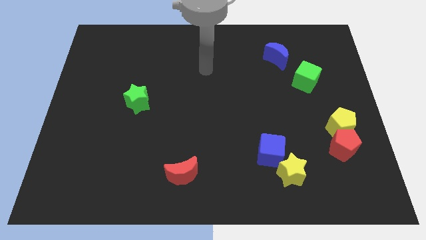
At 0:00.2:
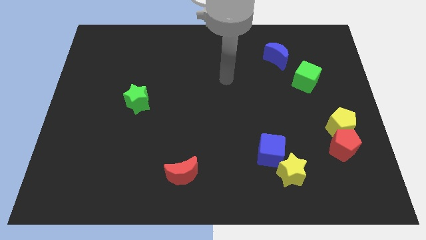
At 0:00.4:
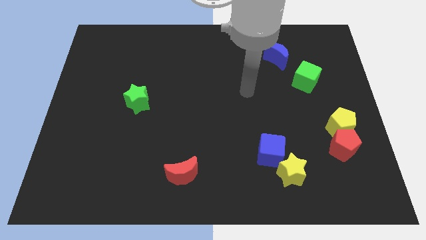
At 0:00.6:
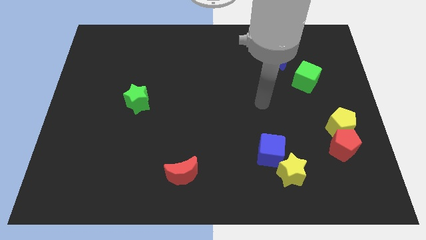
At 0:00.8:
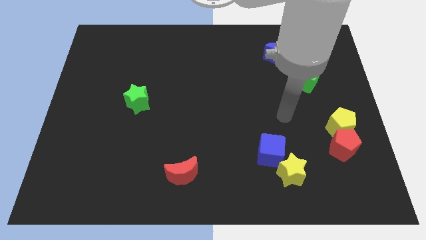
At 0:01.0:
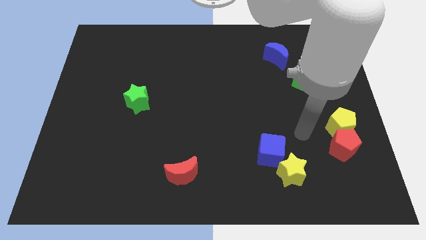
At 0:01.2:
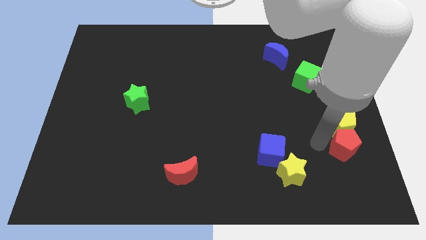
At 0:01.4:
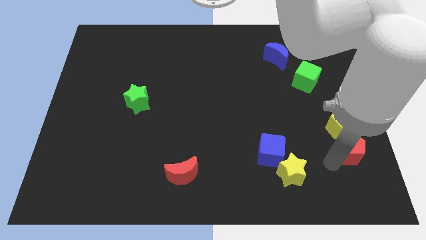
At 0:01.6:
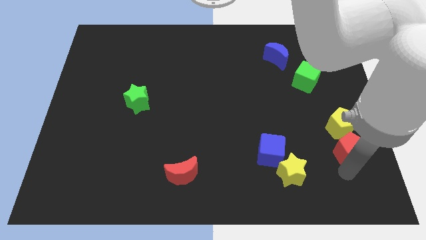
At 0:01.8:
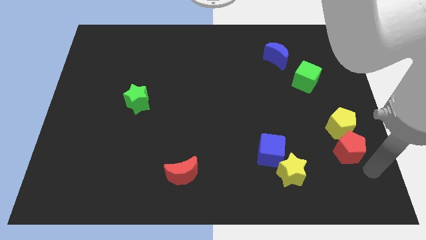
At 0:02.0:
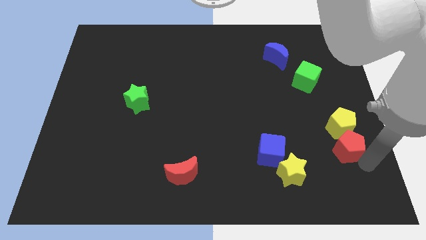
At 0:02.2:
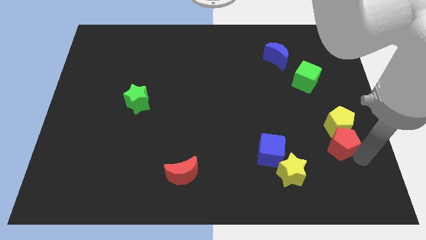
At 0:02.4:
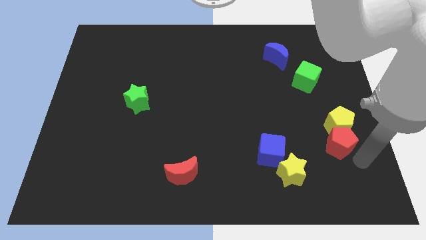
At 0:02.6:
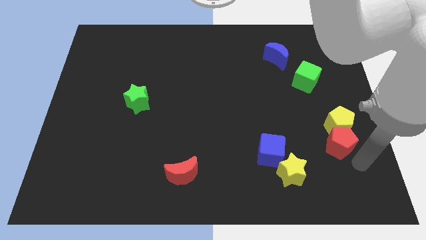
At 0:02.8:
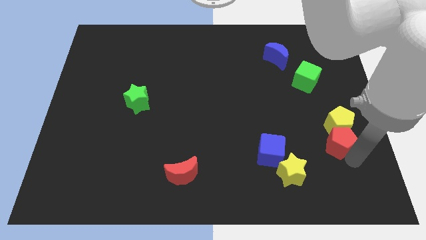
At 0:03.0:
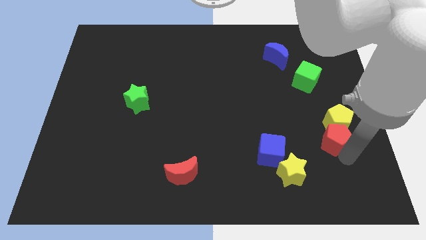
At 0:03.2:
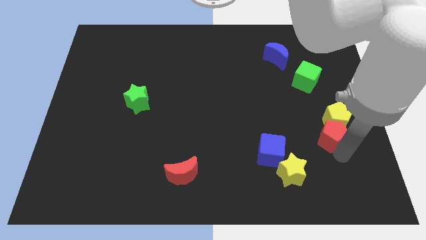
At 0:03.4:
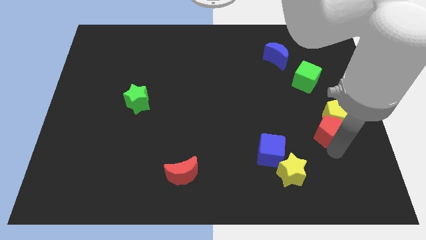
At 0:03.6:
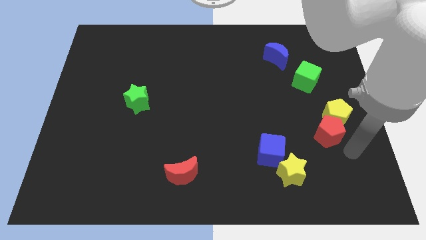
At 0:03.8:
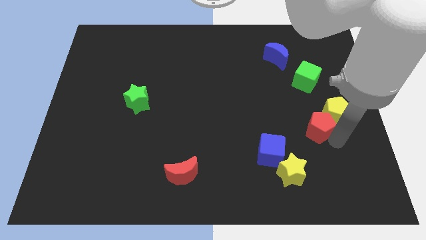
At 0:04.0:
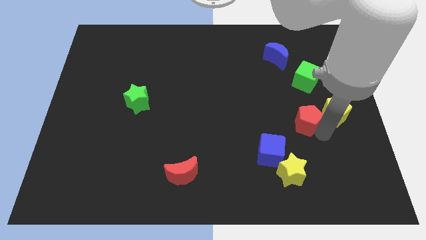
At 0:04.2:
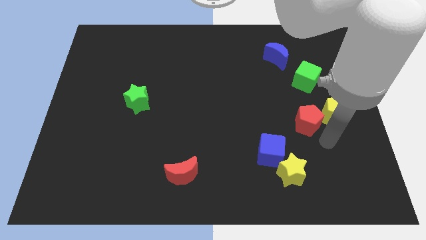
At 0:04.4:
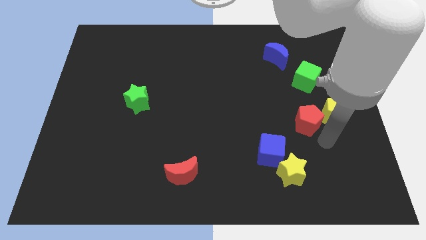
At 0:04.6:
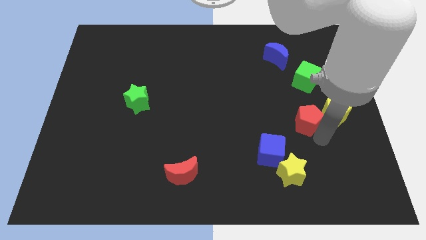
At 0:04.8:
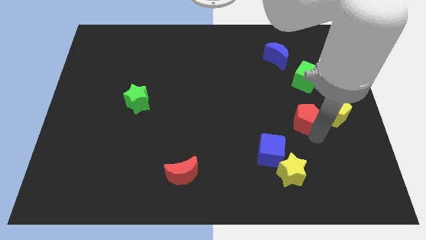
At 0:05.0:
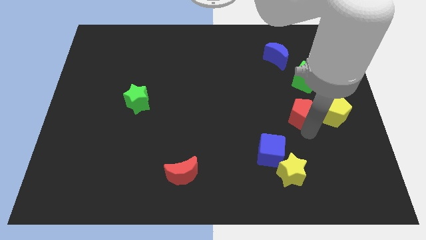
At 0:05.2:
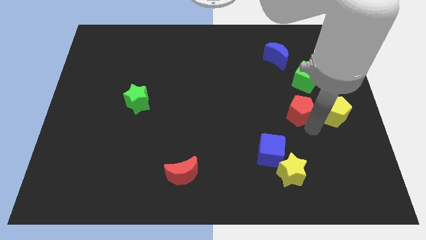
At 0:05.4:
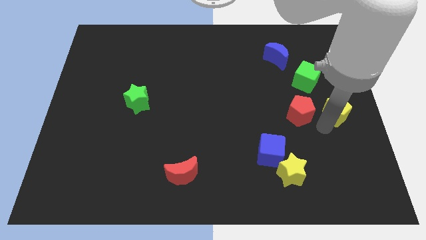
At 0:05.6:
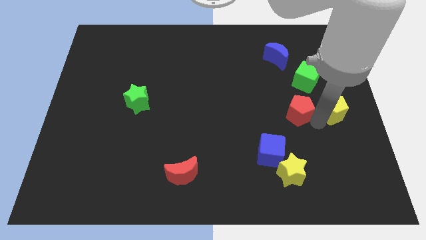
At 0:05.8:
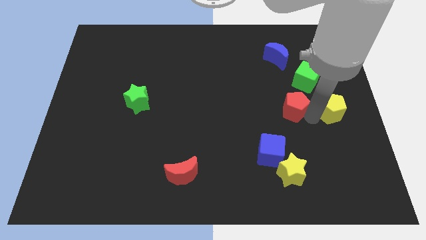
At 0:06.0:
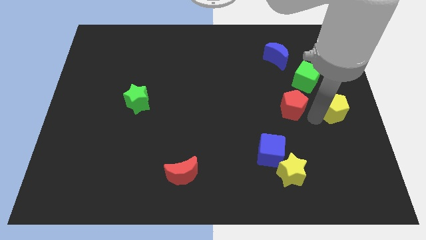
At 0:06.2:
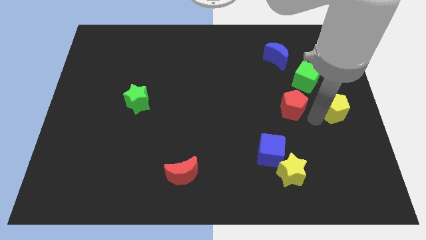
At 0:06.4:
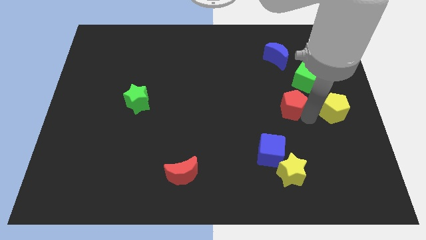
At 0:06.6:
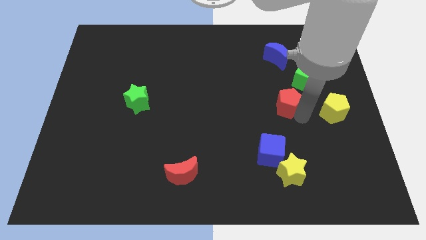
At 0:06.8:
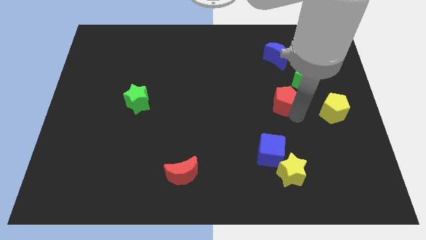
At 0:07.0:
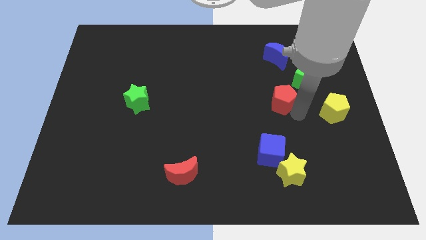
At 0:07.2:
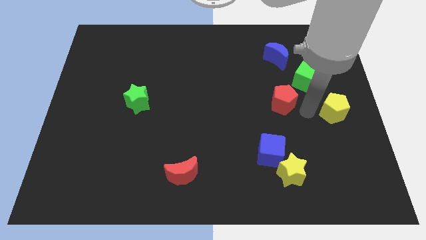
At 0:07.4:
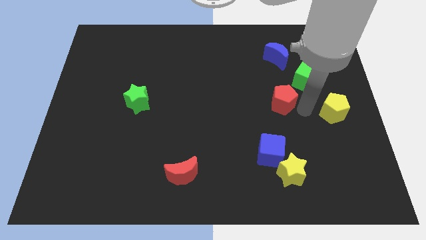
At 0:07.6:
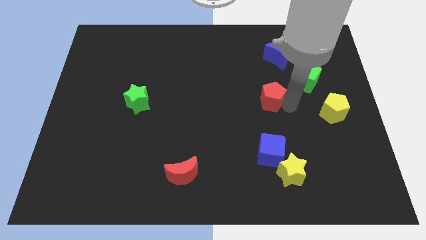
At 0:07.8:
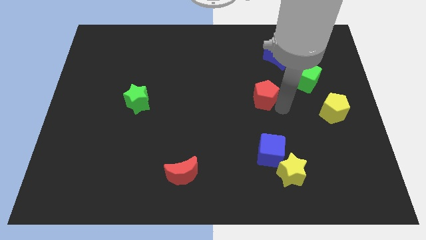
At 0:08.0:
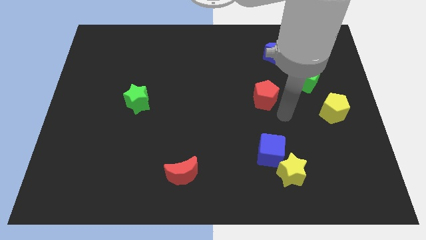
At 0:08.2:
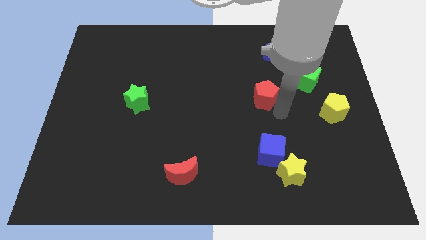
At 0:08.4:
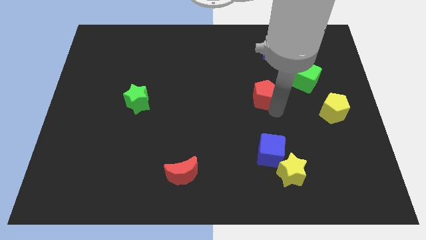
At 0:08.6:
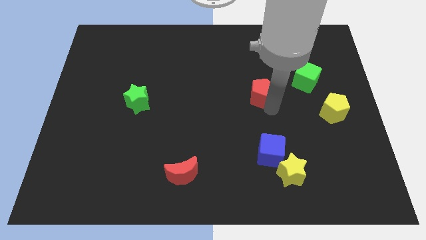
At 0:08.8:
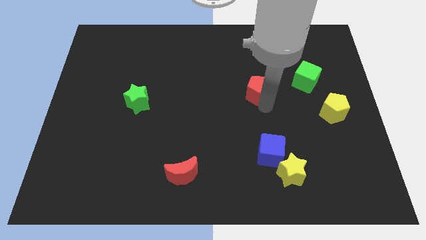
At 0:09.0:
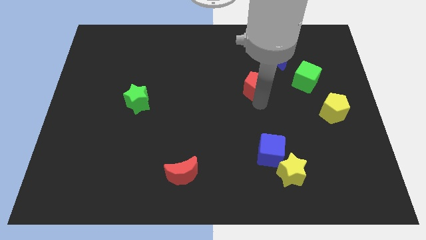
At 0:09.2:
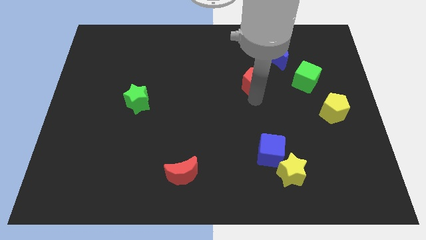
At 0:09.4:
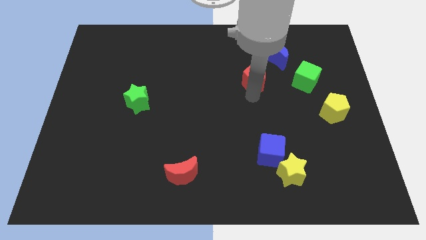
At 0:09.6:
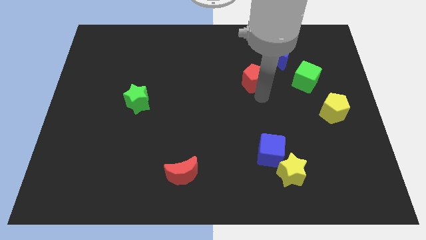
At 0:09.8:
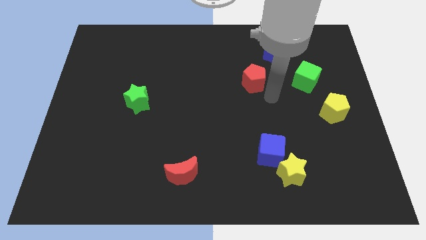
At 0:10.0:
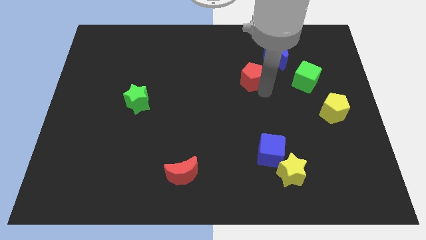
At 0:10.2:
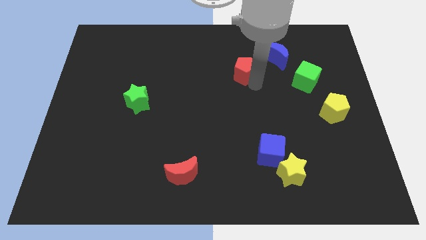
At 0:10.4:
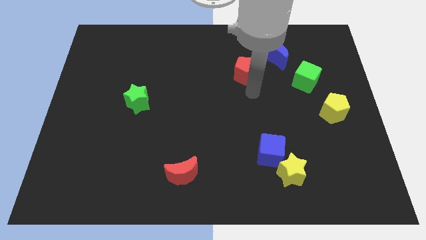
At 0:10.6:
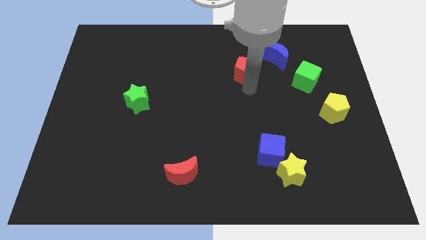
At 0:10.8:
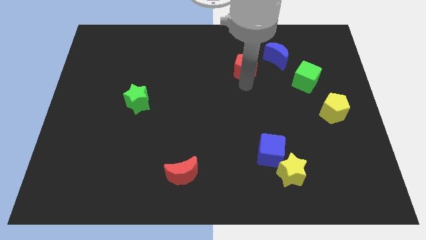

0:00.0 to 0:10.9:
put the red pentagon just left of the blue moon

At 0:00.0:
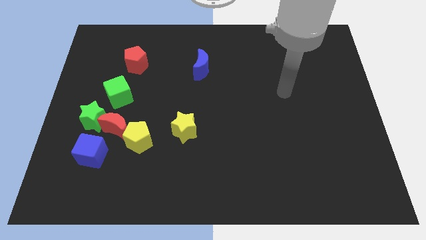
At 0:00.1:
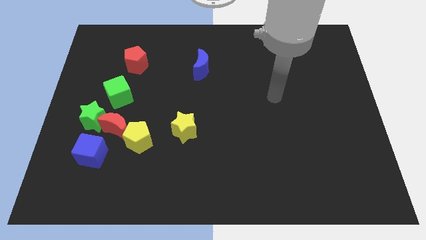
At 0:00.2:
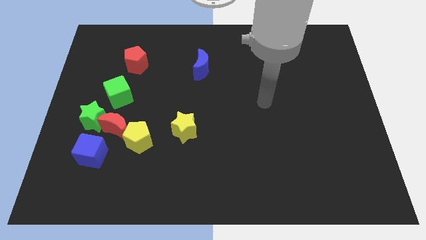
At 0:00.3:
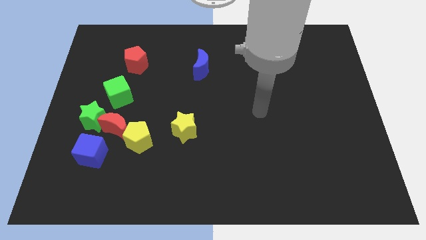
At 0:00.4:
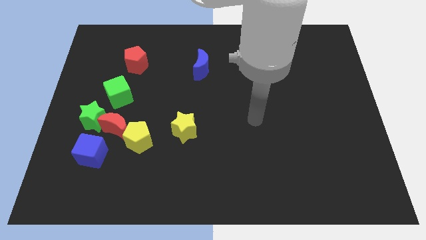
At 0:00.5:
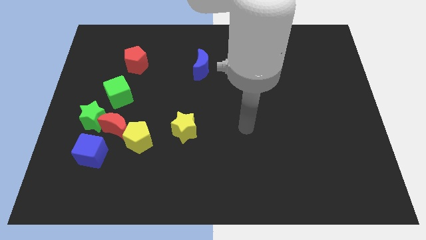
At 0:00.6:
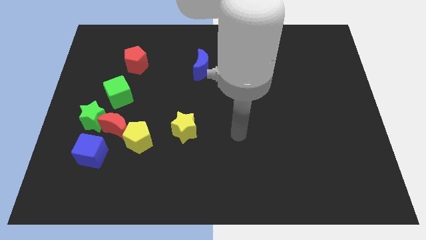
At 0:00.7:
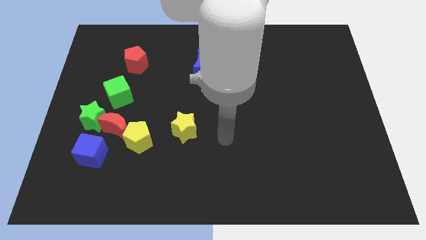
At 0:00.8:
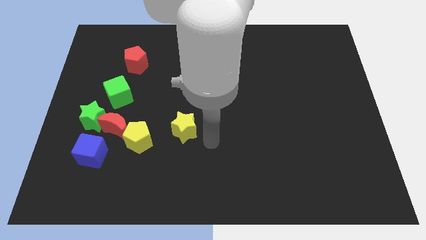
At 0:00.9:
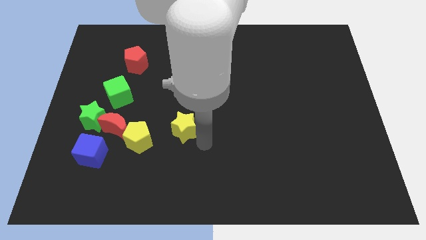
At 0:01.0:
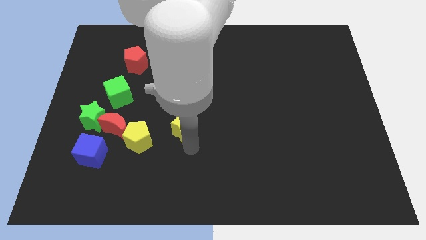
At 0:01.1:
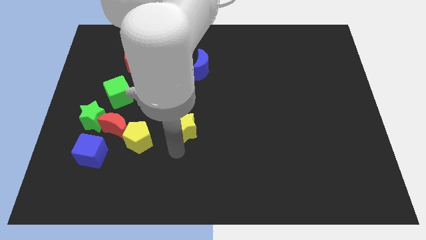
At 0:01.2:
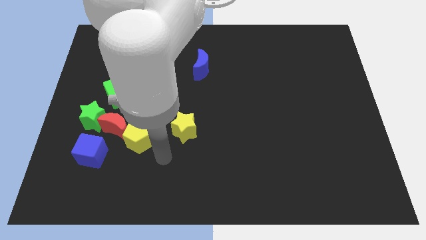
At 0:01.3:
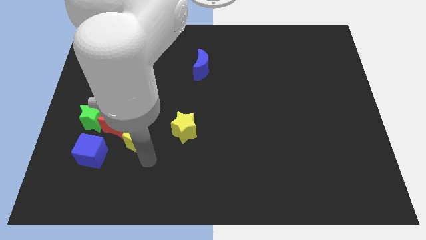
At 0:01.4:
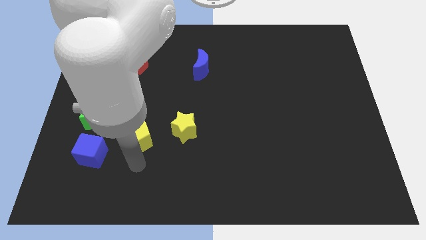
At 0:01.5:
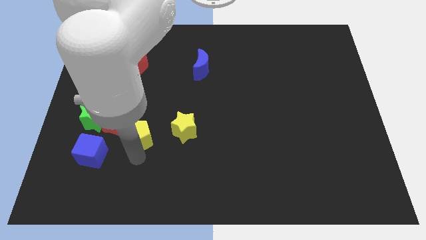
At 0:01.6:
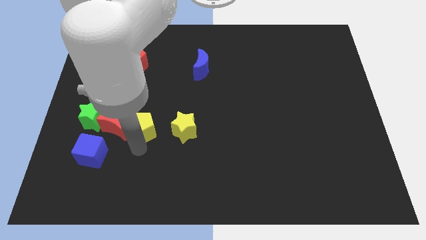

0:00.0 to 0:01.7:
move the yellow pentagon to the top right side of the red moon
